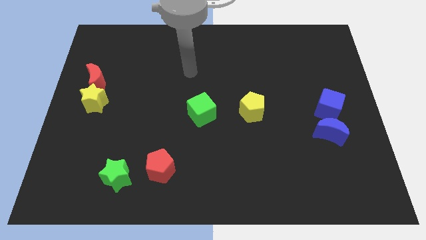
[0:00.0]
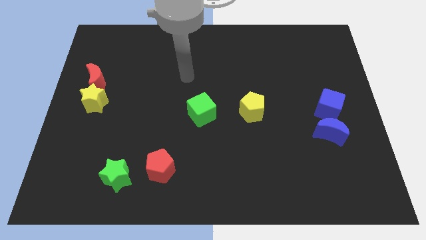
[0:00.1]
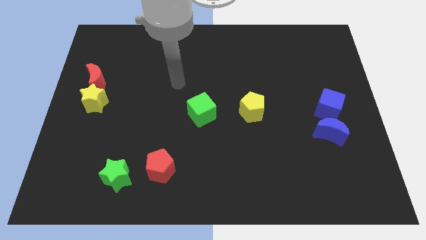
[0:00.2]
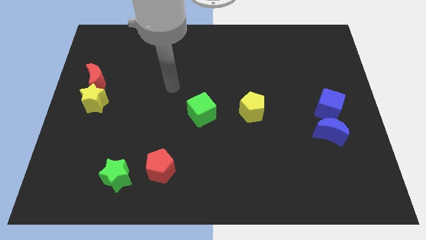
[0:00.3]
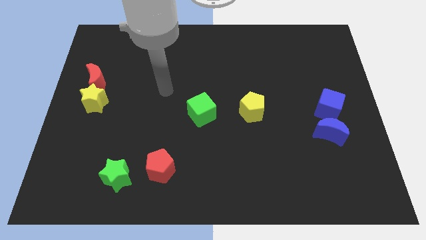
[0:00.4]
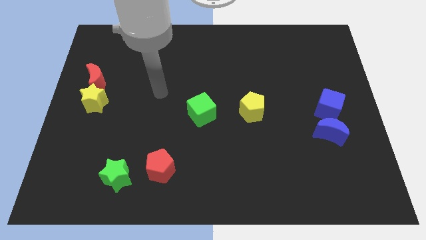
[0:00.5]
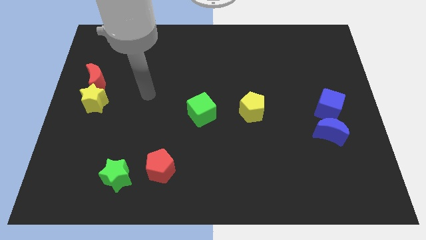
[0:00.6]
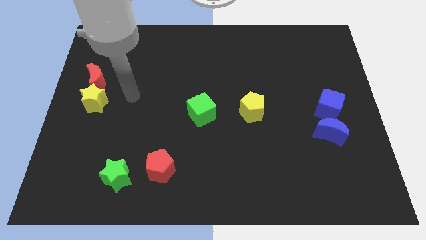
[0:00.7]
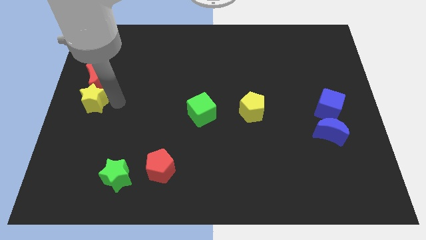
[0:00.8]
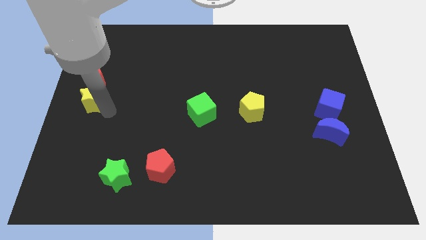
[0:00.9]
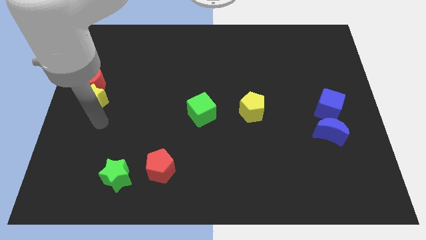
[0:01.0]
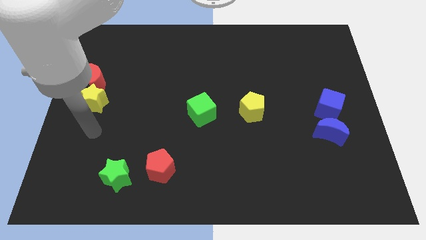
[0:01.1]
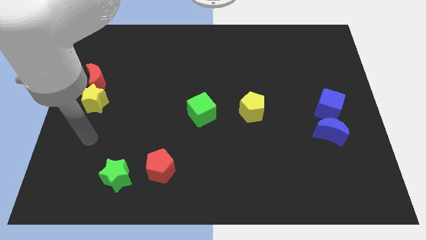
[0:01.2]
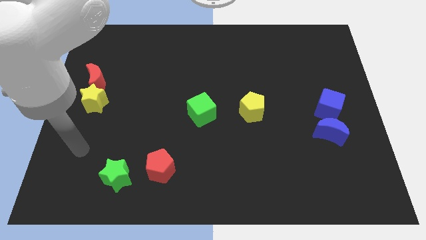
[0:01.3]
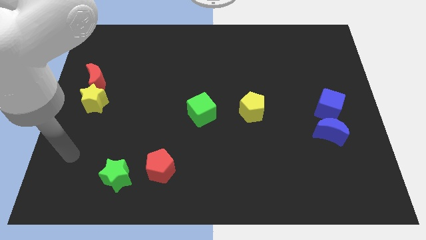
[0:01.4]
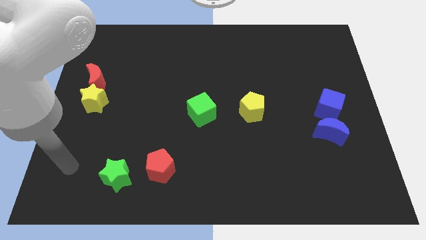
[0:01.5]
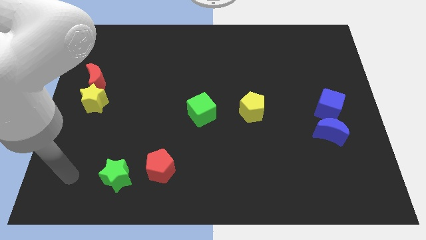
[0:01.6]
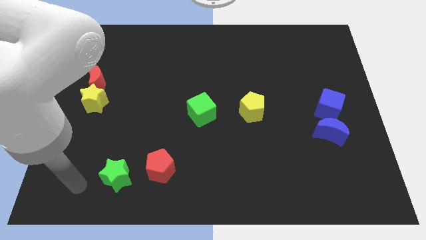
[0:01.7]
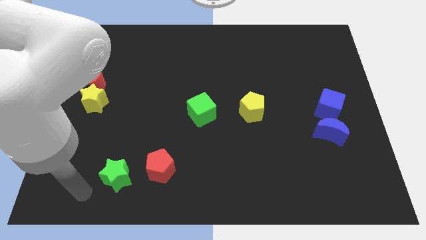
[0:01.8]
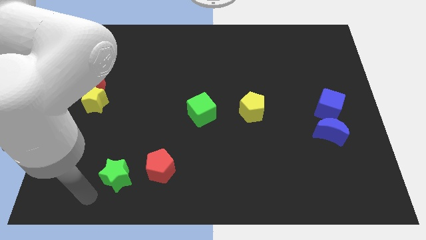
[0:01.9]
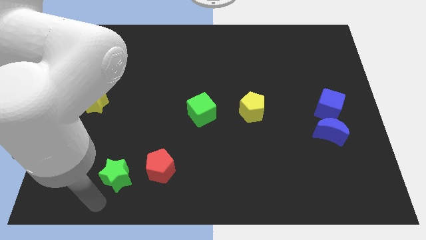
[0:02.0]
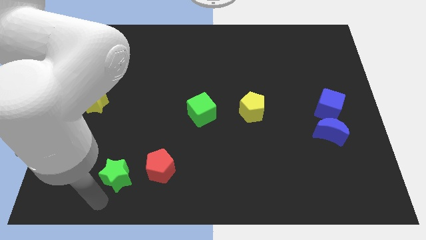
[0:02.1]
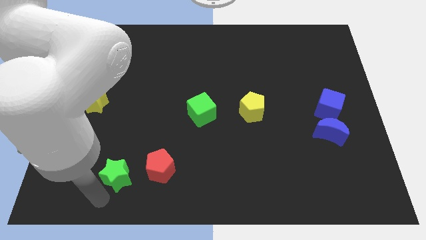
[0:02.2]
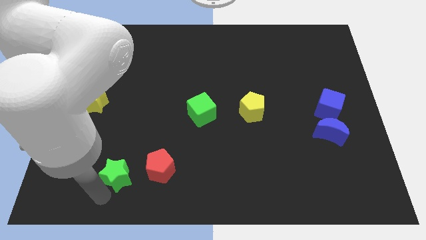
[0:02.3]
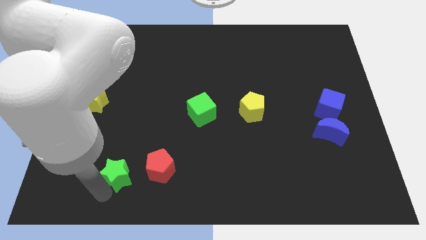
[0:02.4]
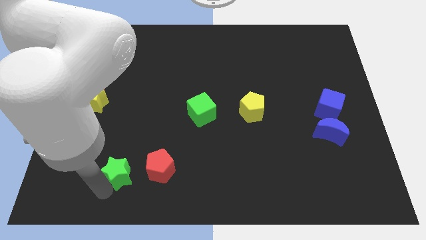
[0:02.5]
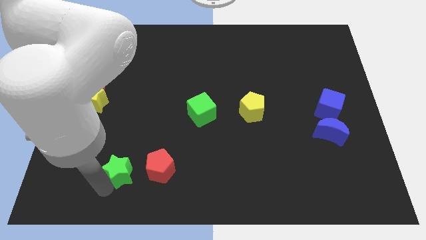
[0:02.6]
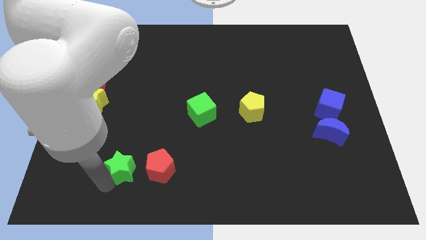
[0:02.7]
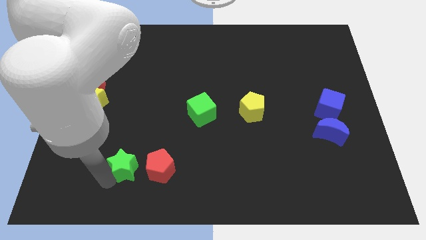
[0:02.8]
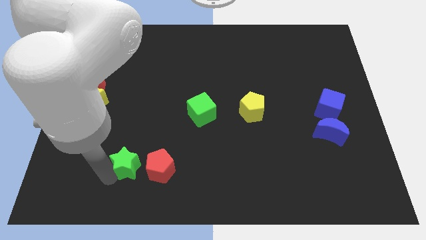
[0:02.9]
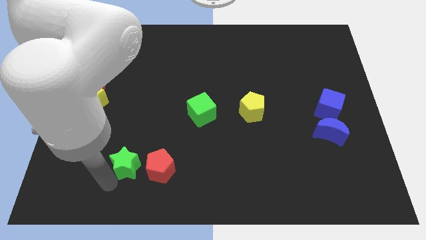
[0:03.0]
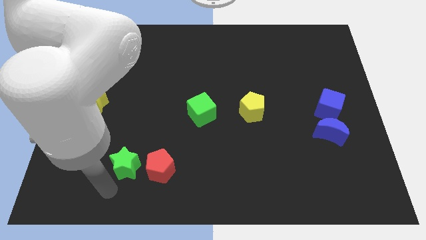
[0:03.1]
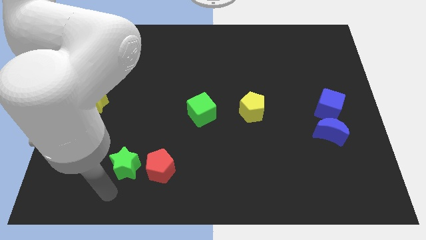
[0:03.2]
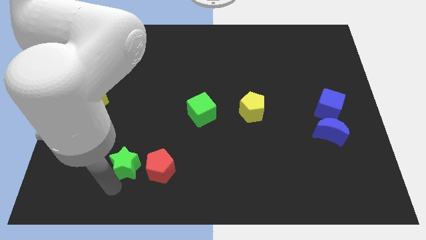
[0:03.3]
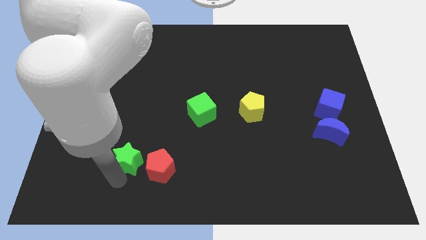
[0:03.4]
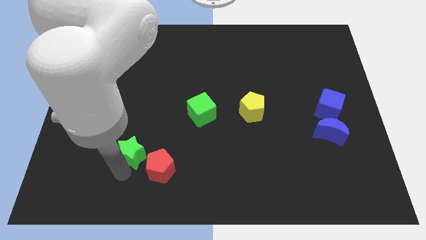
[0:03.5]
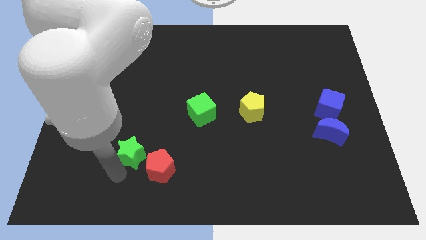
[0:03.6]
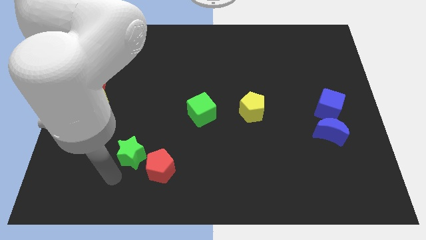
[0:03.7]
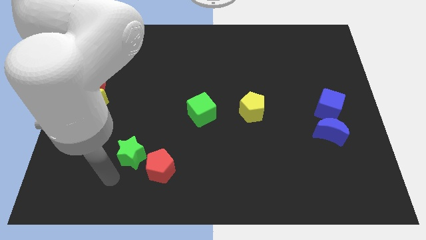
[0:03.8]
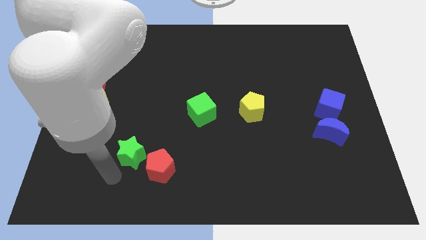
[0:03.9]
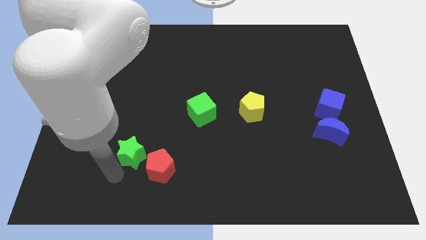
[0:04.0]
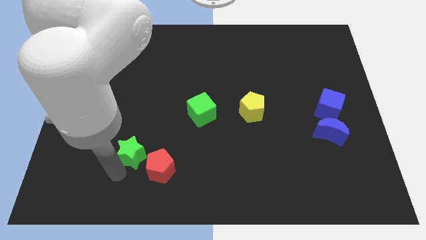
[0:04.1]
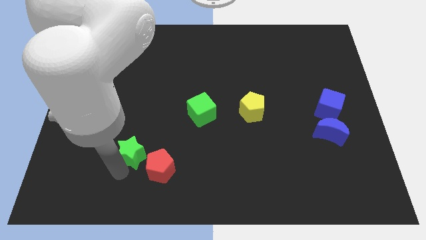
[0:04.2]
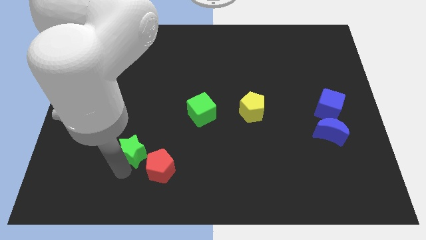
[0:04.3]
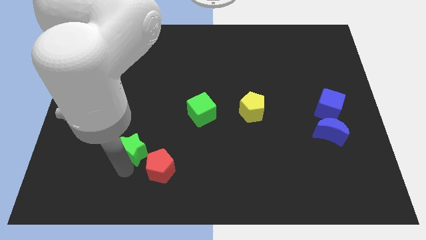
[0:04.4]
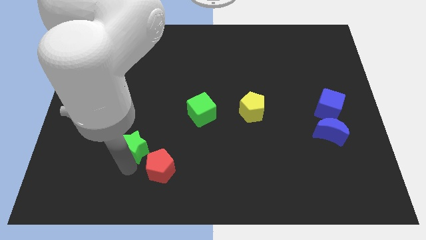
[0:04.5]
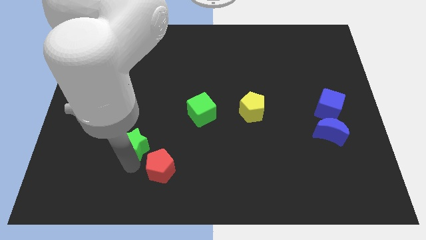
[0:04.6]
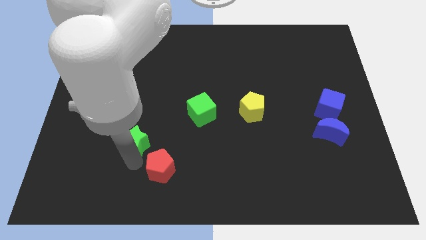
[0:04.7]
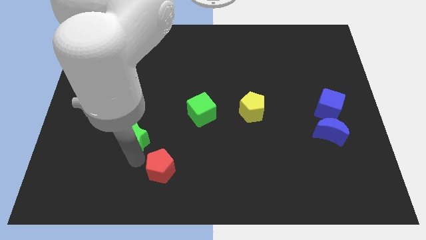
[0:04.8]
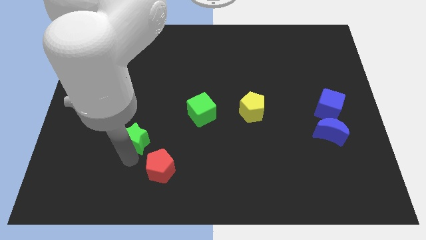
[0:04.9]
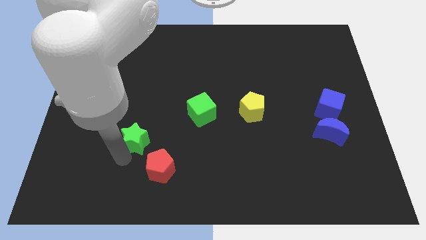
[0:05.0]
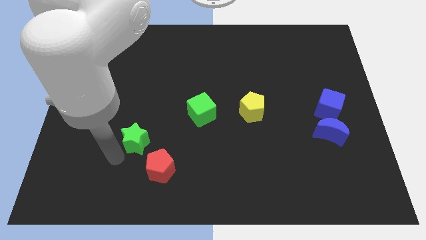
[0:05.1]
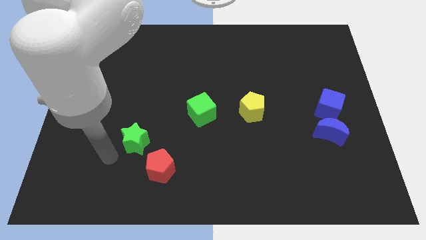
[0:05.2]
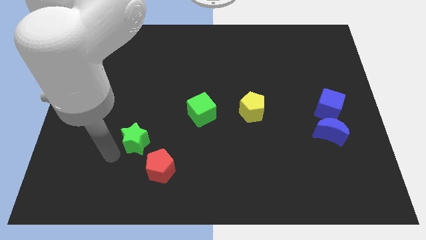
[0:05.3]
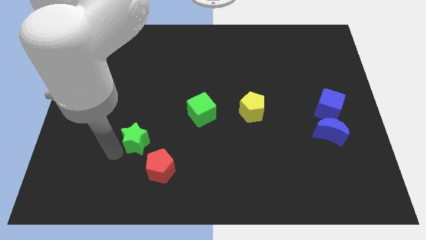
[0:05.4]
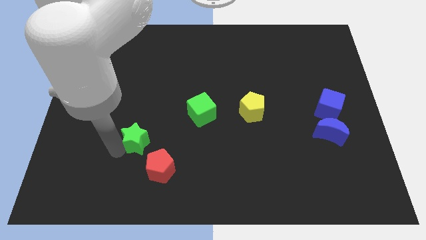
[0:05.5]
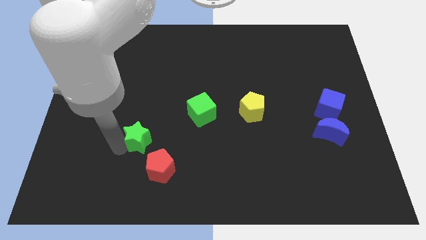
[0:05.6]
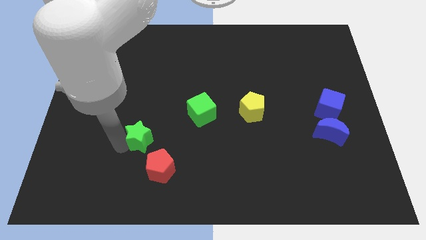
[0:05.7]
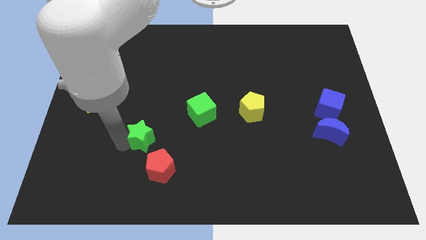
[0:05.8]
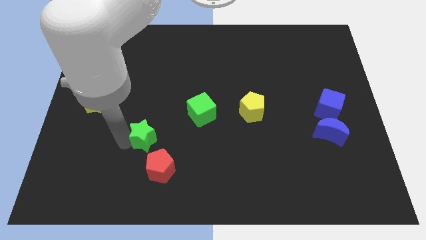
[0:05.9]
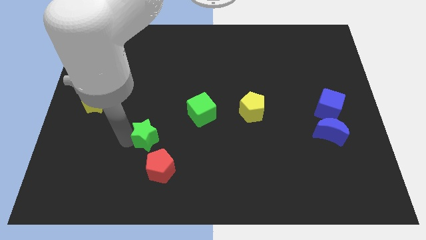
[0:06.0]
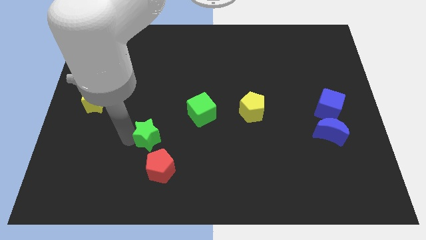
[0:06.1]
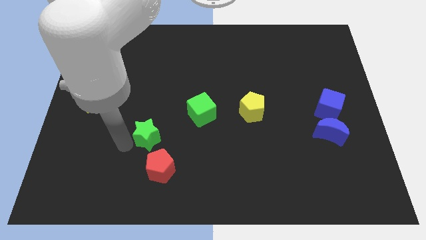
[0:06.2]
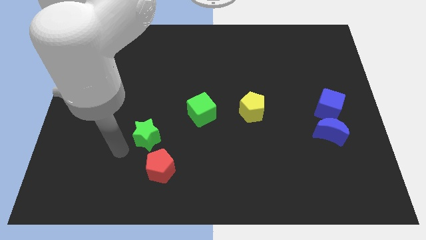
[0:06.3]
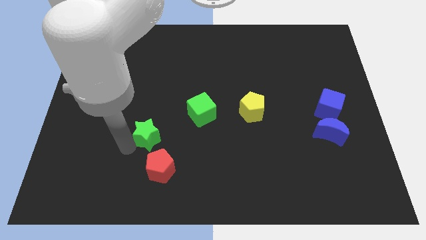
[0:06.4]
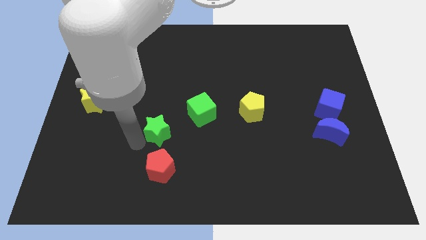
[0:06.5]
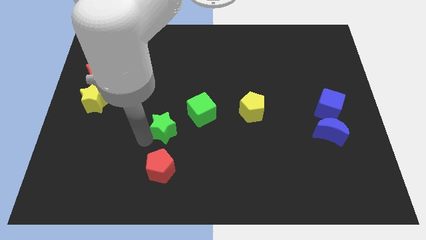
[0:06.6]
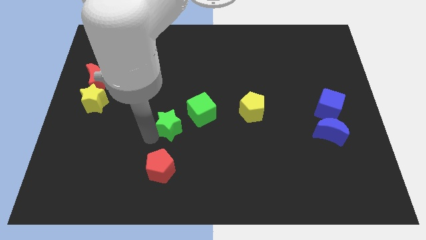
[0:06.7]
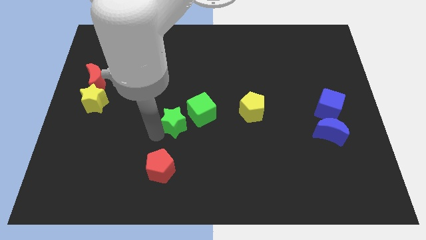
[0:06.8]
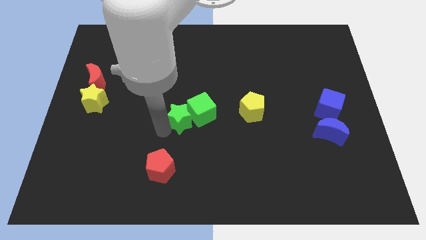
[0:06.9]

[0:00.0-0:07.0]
put the green star close to the green cube

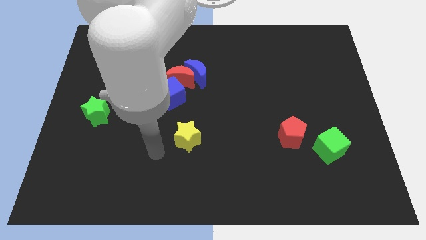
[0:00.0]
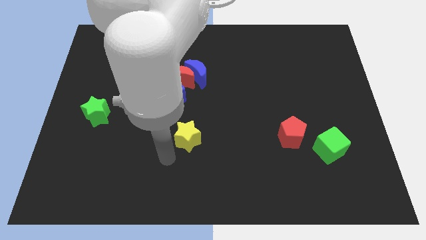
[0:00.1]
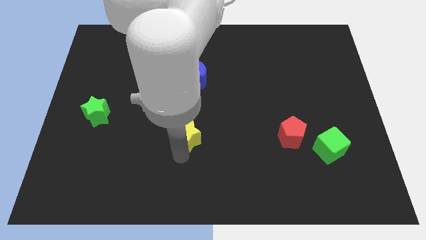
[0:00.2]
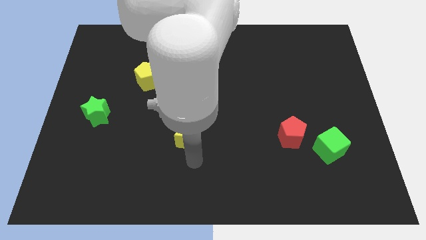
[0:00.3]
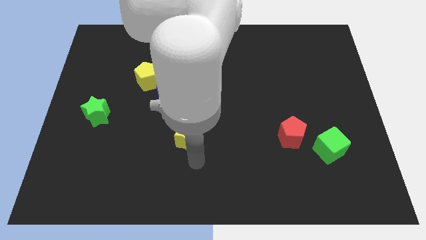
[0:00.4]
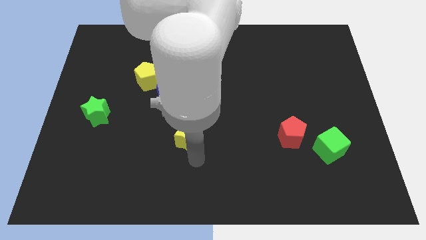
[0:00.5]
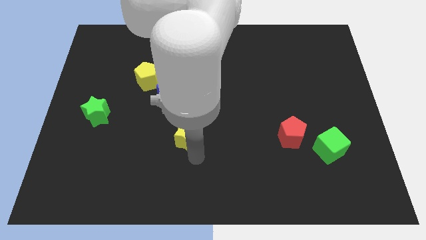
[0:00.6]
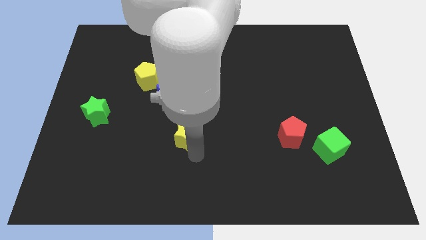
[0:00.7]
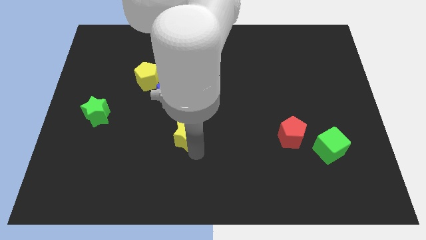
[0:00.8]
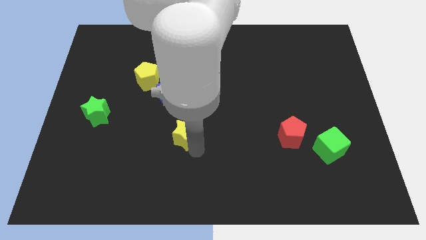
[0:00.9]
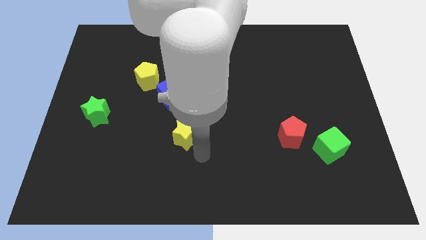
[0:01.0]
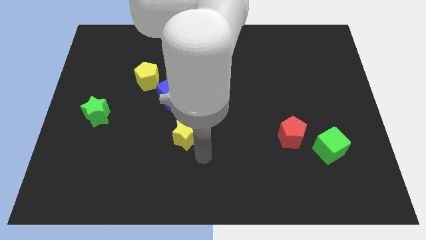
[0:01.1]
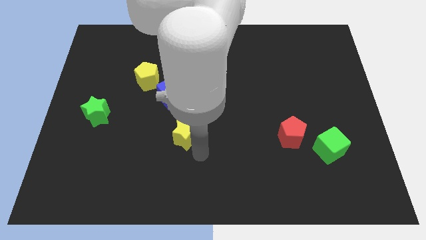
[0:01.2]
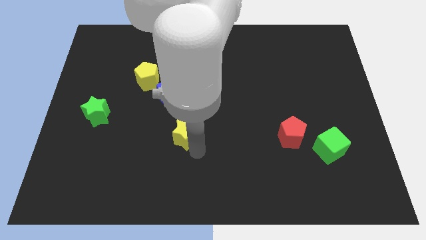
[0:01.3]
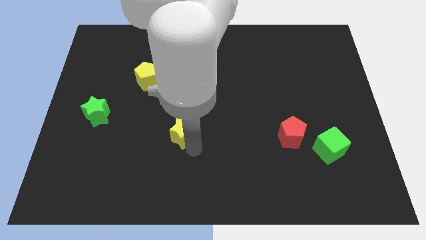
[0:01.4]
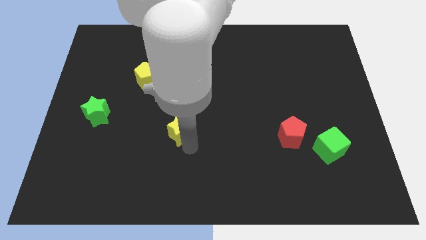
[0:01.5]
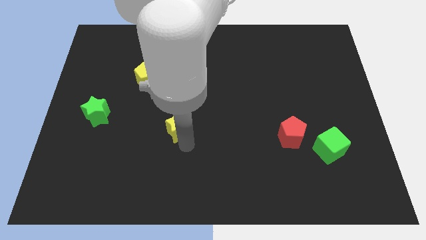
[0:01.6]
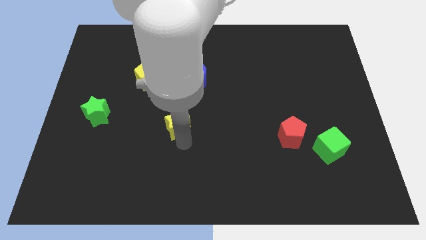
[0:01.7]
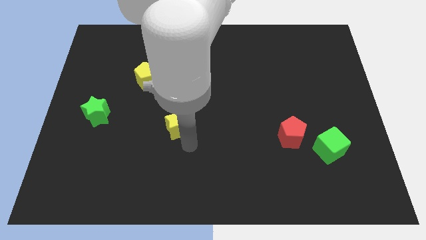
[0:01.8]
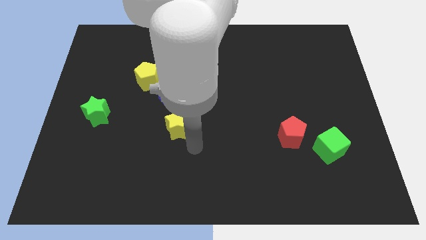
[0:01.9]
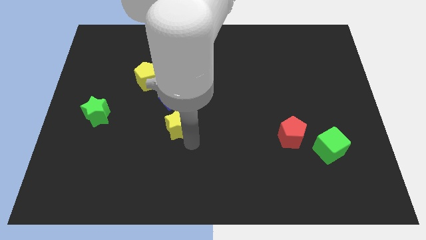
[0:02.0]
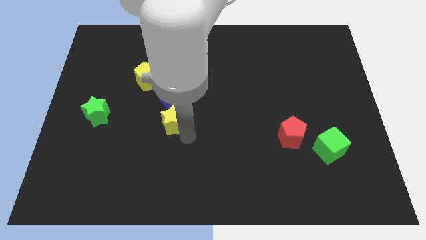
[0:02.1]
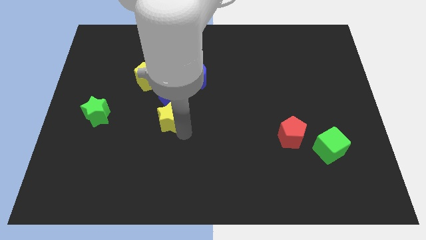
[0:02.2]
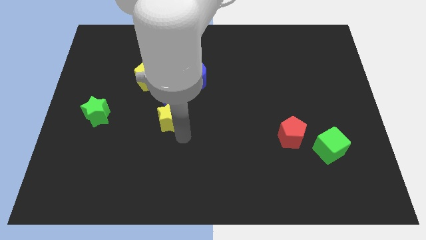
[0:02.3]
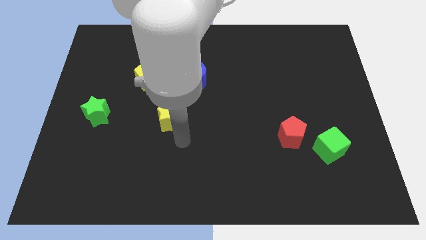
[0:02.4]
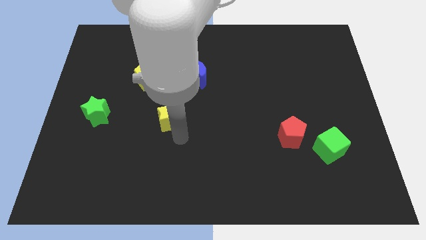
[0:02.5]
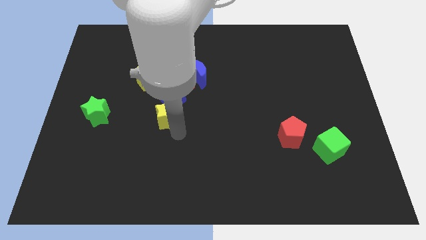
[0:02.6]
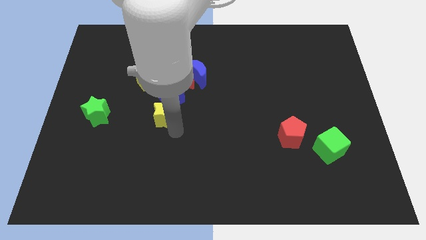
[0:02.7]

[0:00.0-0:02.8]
push the yellow star to the blue cube
